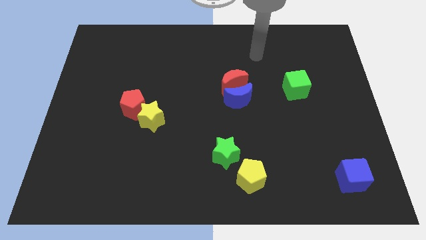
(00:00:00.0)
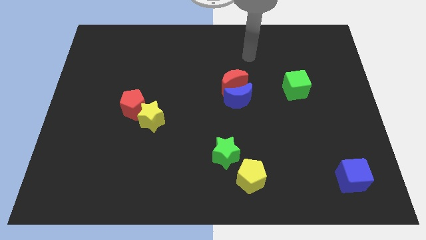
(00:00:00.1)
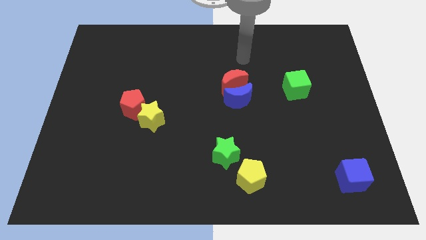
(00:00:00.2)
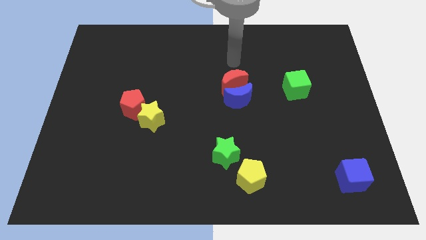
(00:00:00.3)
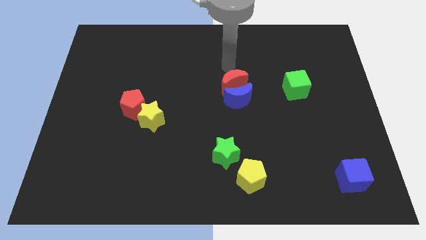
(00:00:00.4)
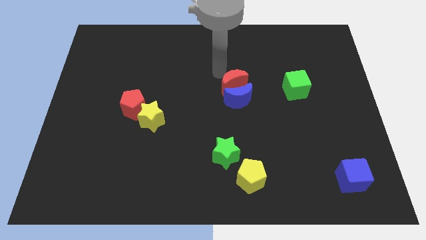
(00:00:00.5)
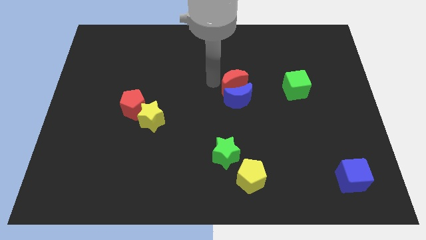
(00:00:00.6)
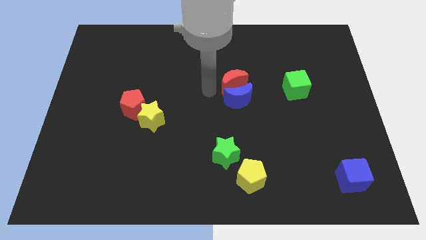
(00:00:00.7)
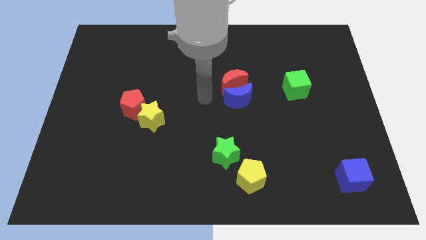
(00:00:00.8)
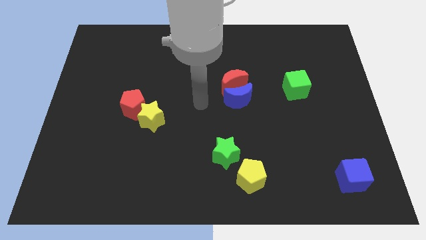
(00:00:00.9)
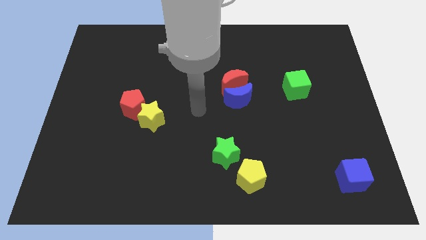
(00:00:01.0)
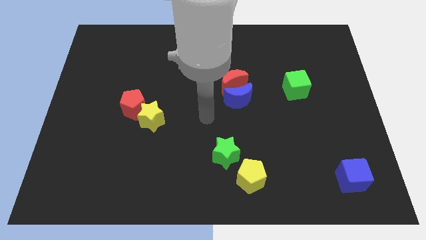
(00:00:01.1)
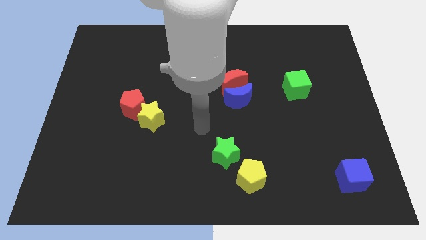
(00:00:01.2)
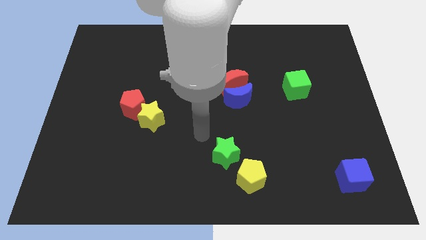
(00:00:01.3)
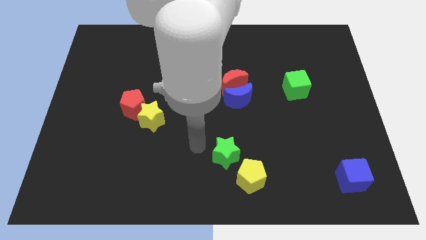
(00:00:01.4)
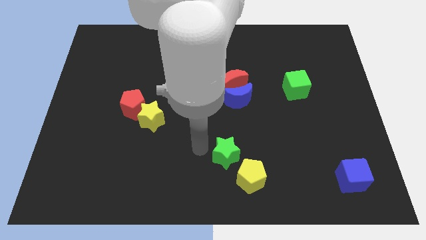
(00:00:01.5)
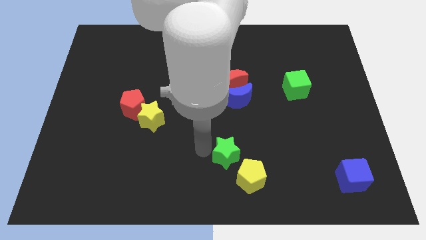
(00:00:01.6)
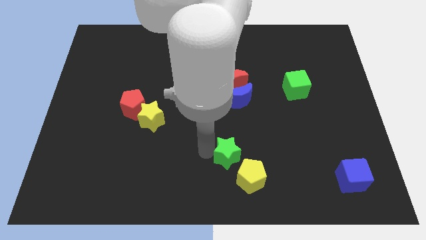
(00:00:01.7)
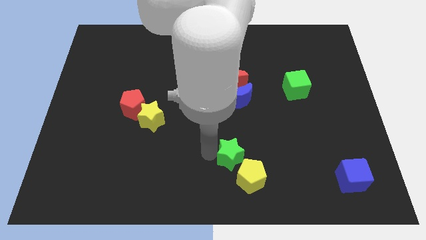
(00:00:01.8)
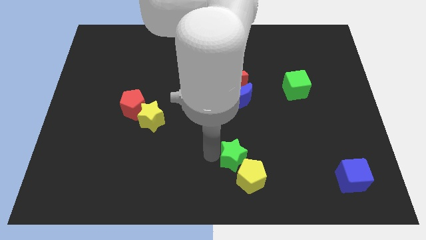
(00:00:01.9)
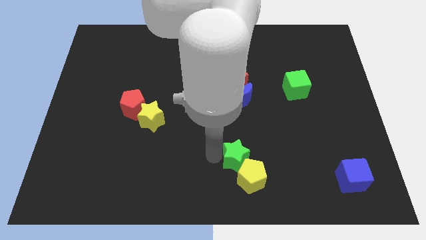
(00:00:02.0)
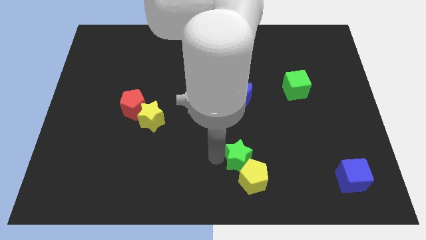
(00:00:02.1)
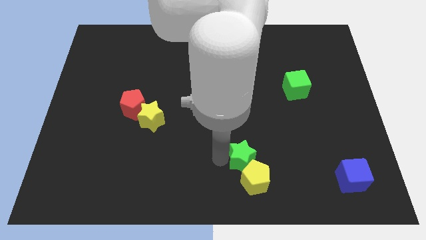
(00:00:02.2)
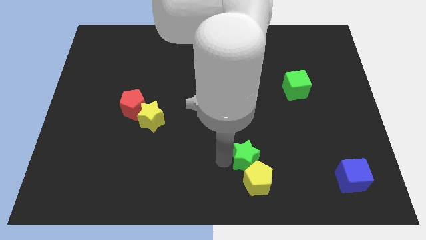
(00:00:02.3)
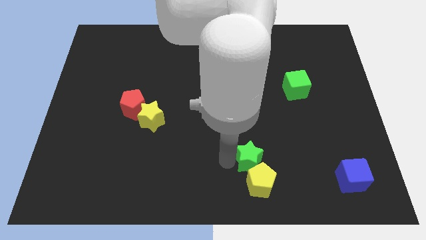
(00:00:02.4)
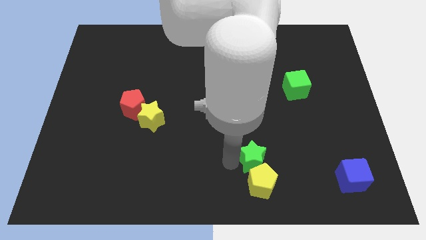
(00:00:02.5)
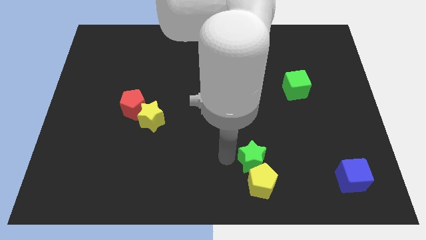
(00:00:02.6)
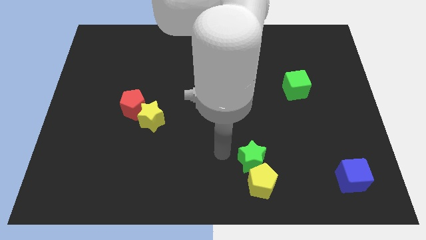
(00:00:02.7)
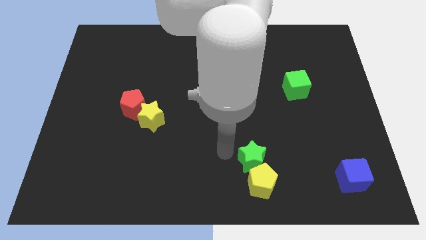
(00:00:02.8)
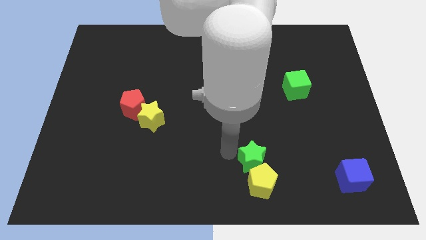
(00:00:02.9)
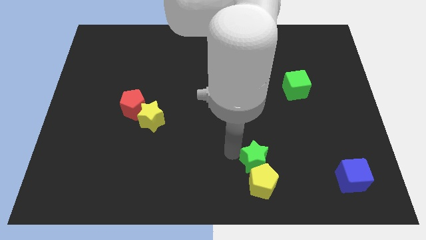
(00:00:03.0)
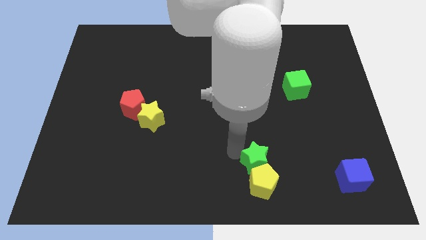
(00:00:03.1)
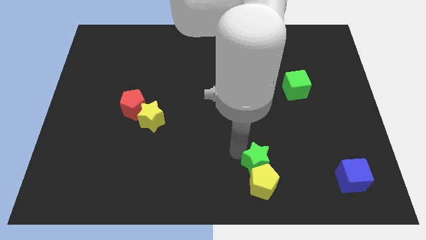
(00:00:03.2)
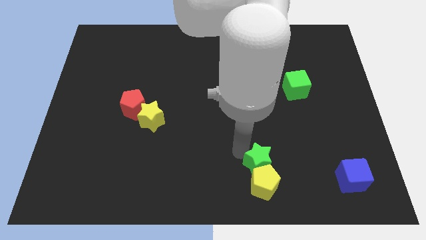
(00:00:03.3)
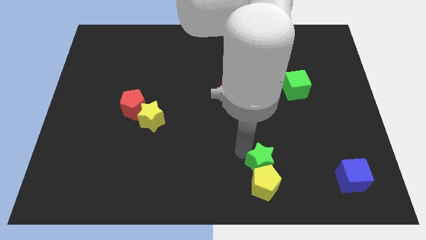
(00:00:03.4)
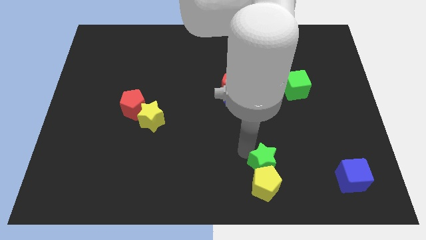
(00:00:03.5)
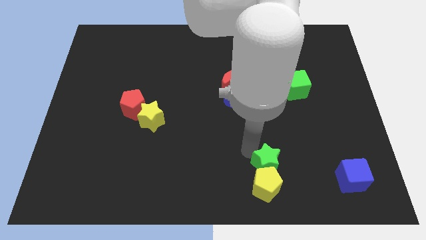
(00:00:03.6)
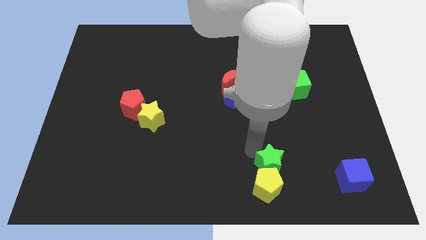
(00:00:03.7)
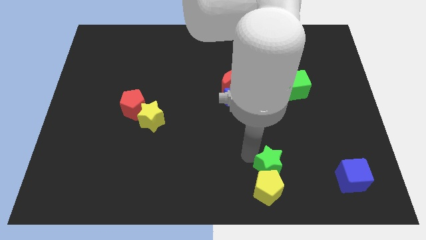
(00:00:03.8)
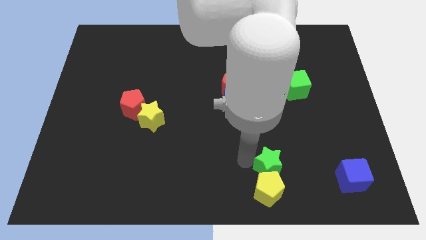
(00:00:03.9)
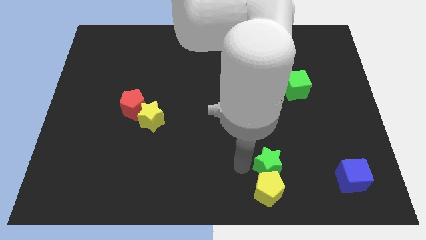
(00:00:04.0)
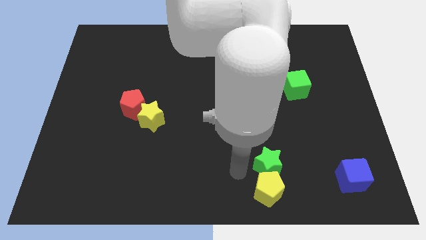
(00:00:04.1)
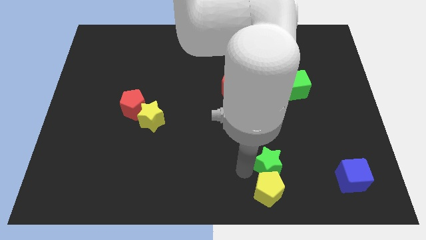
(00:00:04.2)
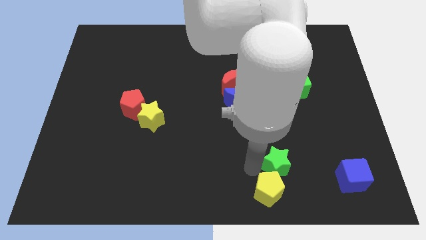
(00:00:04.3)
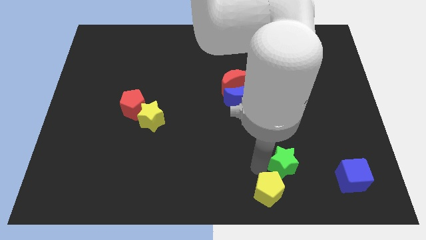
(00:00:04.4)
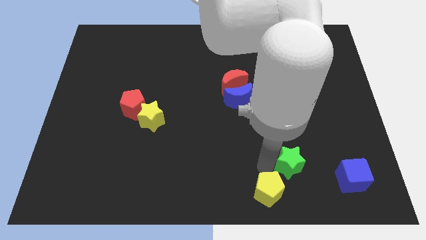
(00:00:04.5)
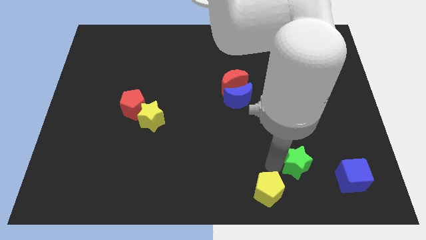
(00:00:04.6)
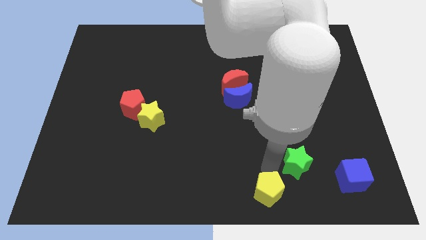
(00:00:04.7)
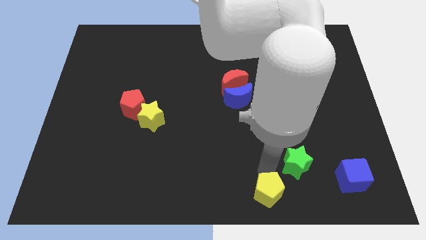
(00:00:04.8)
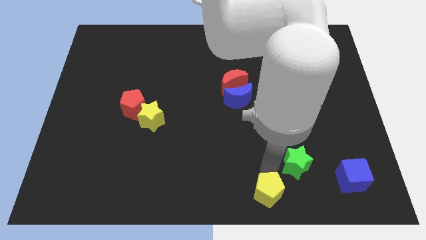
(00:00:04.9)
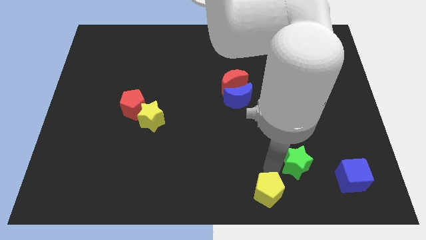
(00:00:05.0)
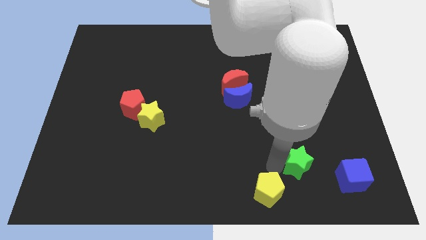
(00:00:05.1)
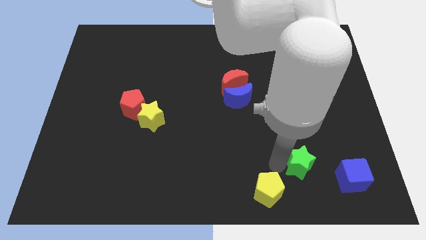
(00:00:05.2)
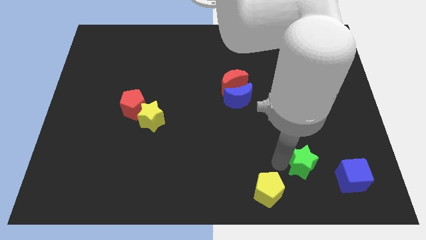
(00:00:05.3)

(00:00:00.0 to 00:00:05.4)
put the green star to the top left side of the blue cube

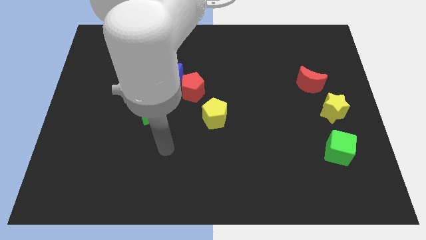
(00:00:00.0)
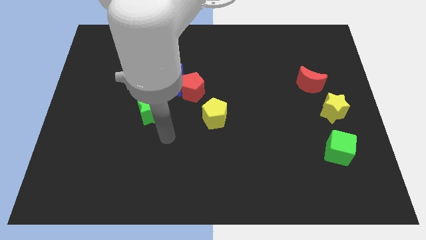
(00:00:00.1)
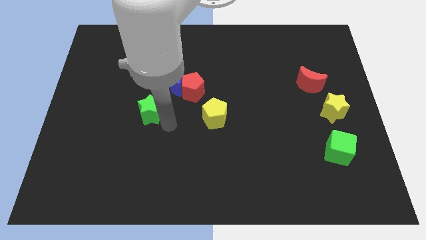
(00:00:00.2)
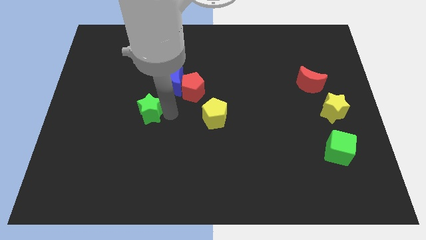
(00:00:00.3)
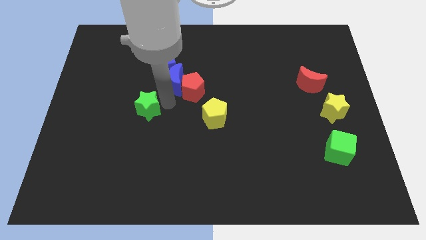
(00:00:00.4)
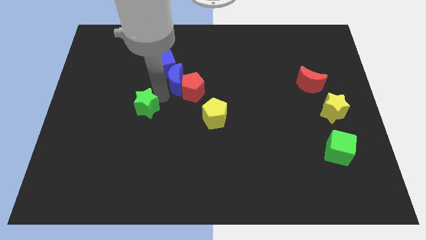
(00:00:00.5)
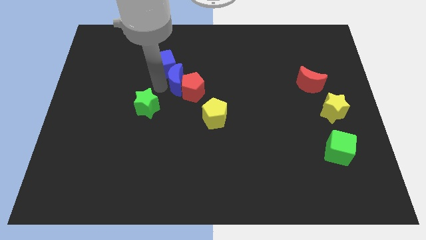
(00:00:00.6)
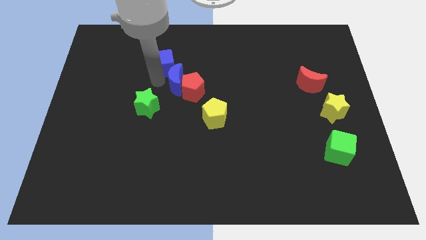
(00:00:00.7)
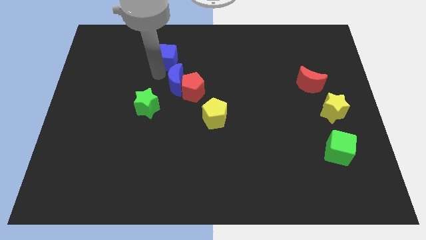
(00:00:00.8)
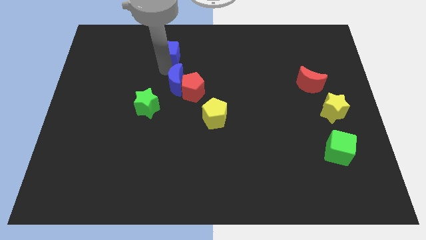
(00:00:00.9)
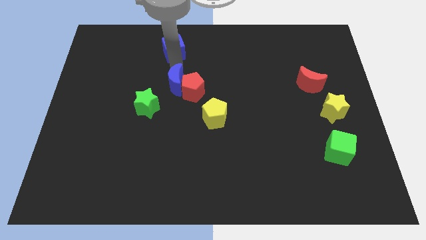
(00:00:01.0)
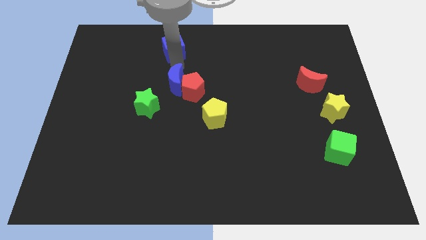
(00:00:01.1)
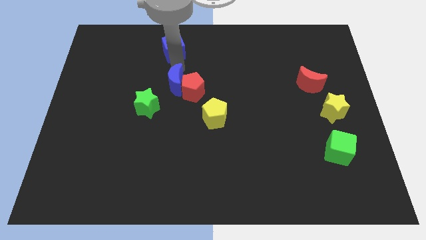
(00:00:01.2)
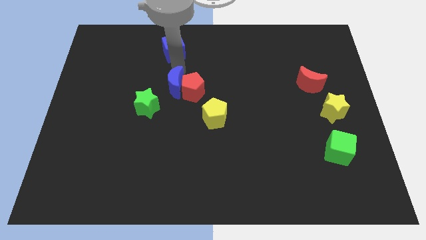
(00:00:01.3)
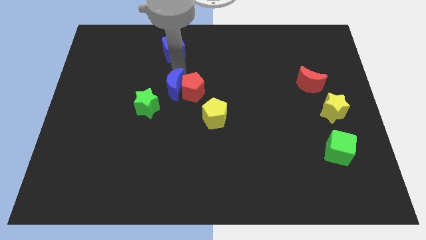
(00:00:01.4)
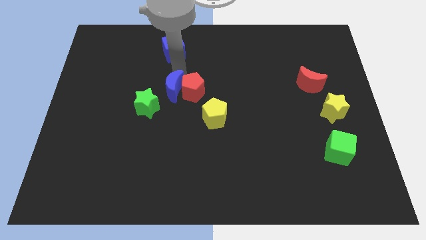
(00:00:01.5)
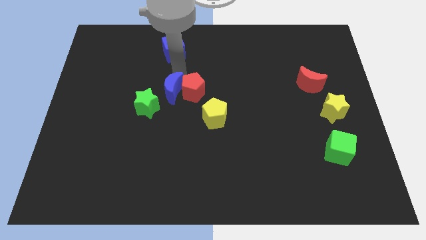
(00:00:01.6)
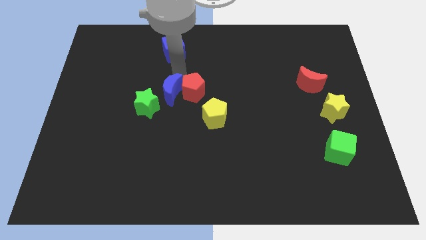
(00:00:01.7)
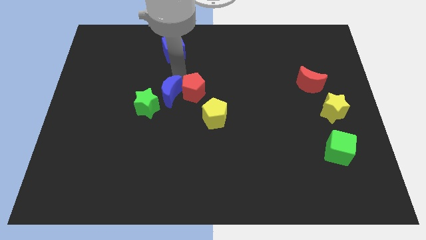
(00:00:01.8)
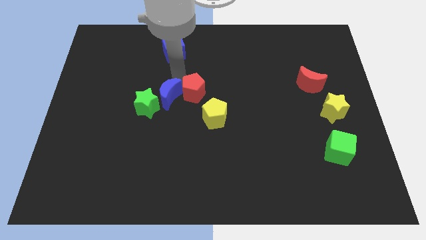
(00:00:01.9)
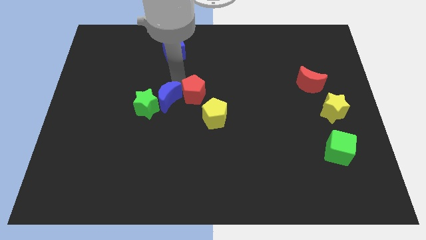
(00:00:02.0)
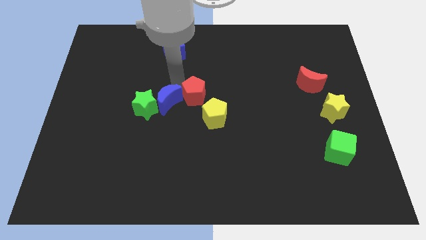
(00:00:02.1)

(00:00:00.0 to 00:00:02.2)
push the blue moon to the bottom right of the green star

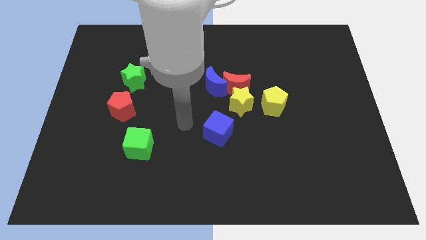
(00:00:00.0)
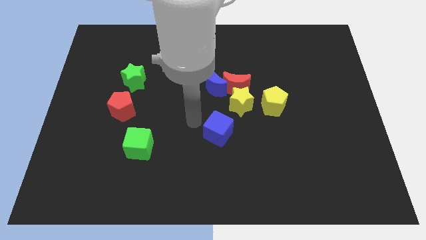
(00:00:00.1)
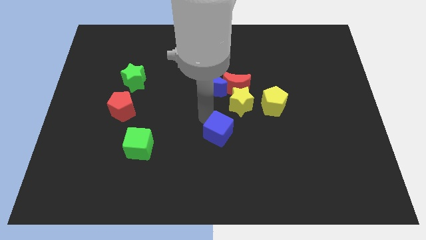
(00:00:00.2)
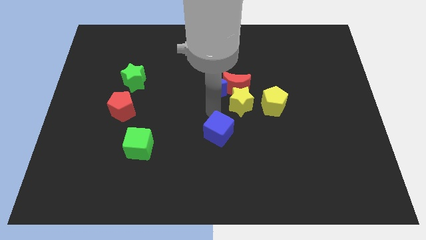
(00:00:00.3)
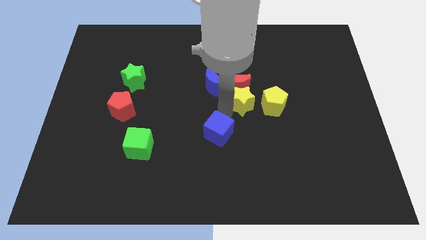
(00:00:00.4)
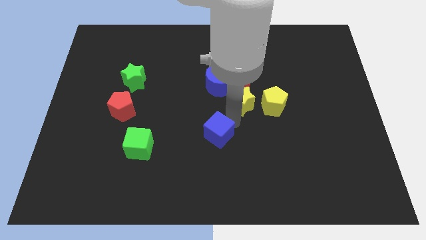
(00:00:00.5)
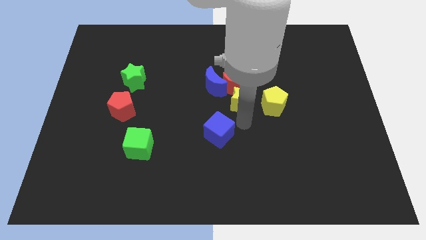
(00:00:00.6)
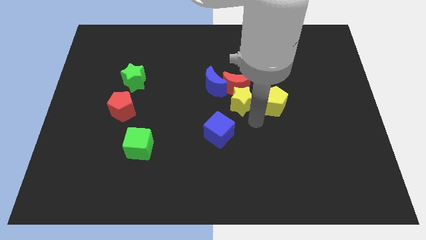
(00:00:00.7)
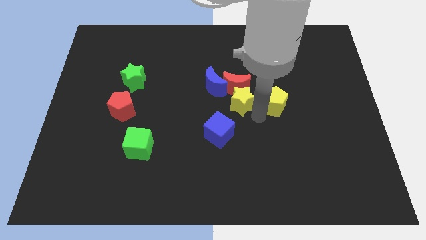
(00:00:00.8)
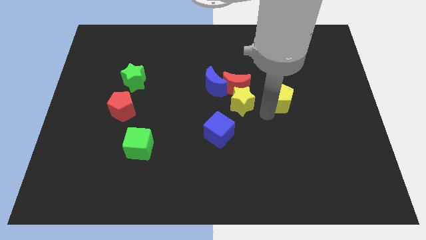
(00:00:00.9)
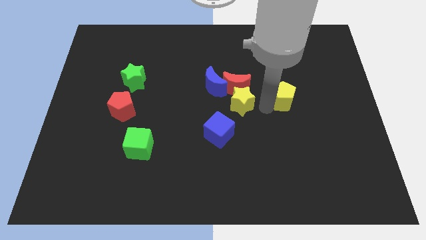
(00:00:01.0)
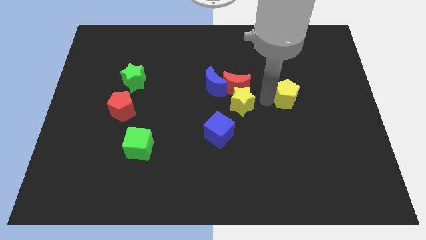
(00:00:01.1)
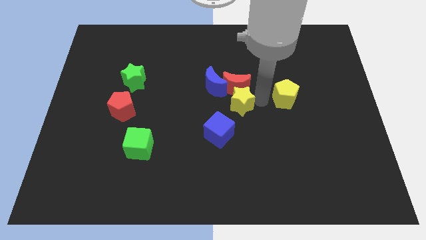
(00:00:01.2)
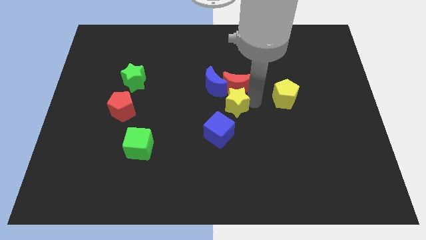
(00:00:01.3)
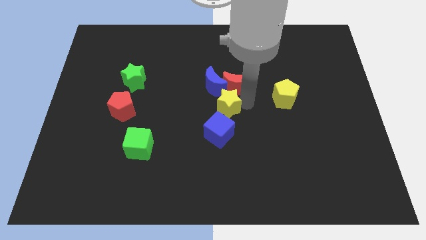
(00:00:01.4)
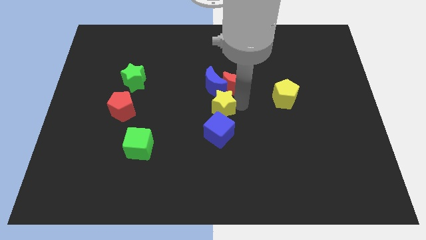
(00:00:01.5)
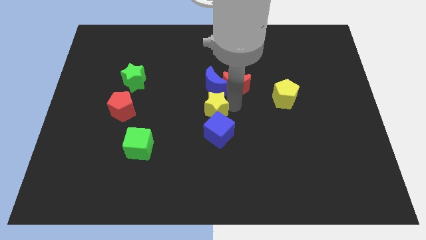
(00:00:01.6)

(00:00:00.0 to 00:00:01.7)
slide the yellow star to the top left of the blue cube
